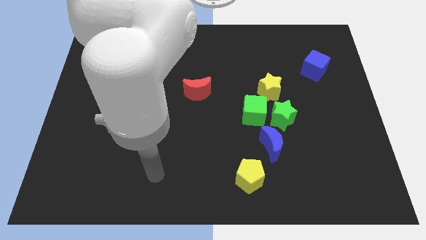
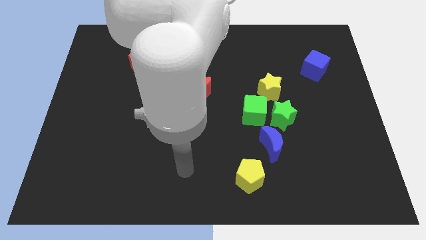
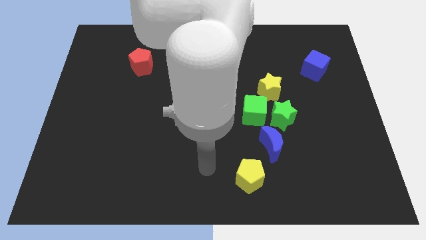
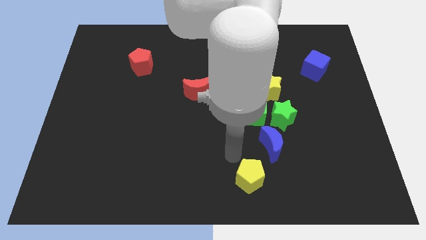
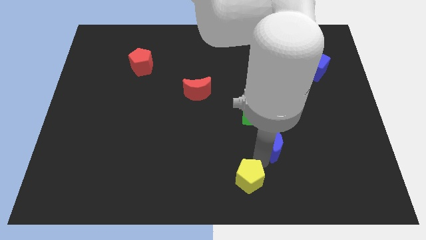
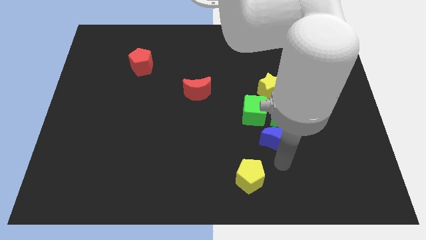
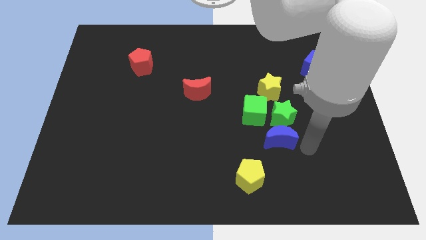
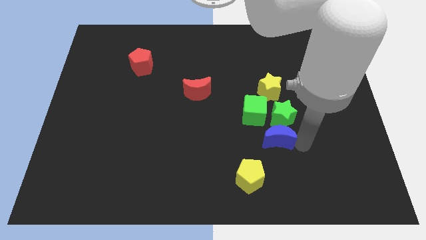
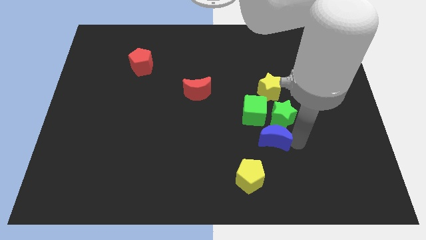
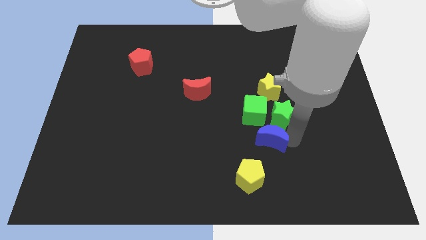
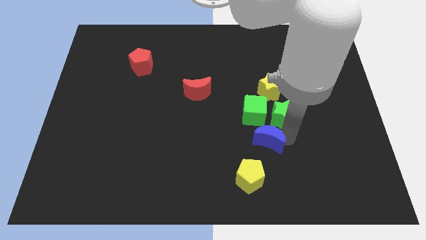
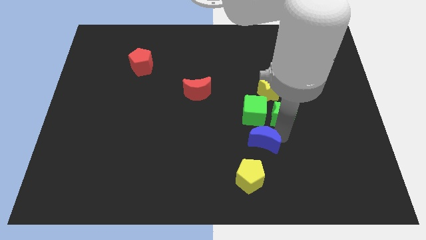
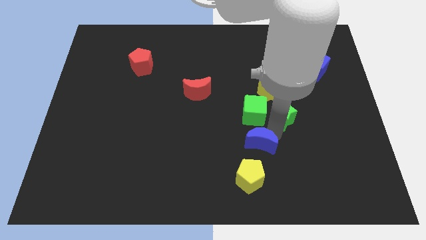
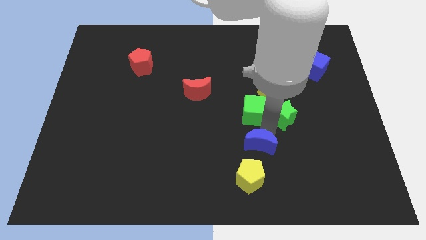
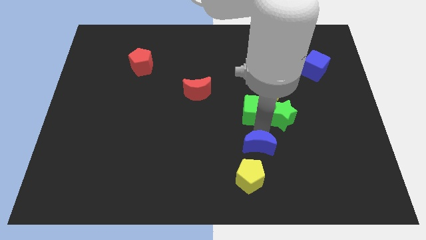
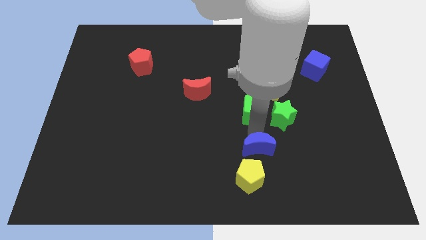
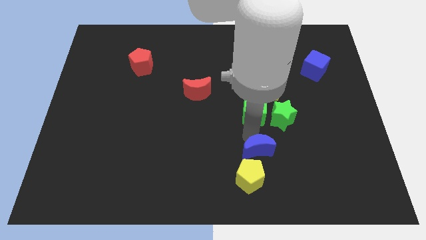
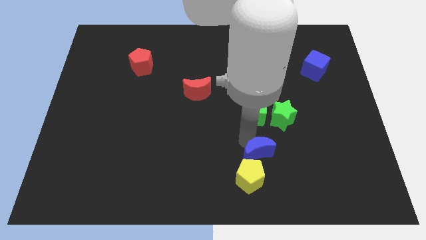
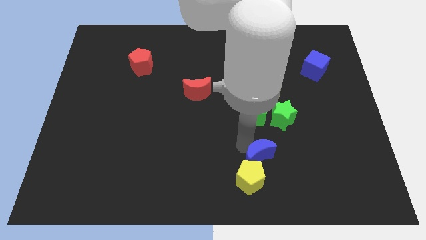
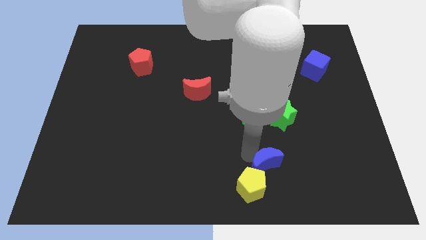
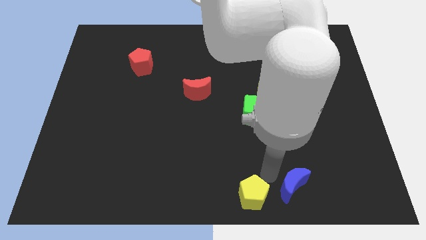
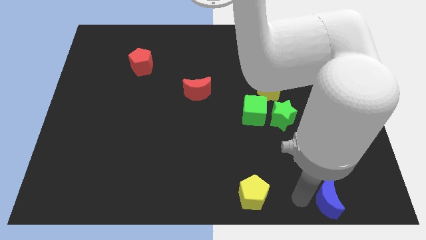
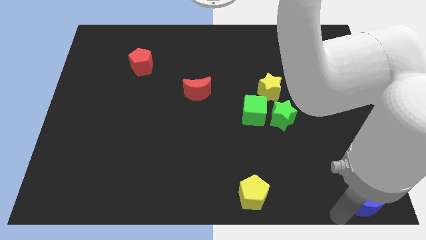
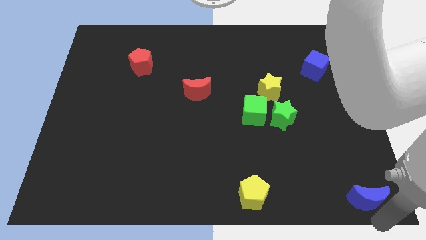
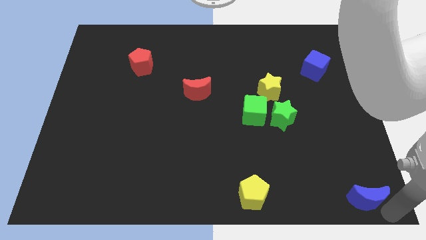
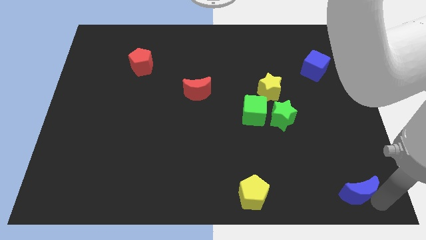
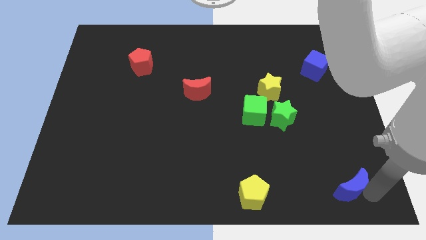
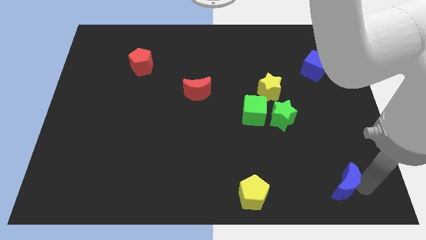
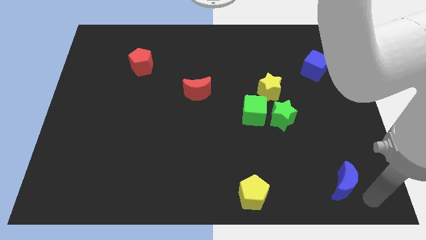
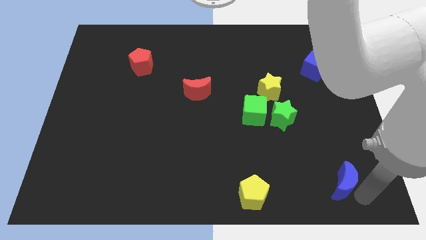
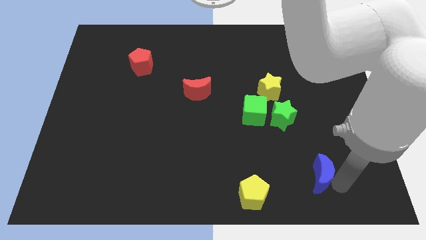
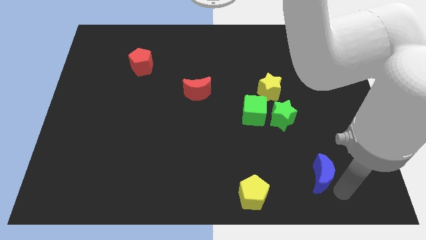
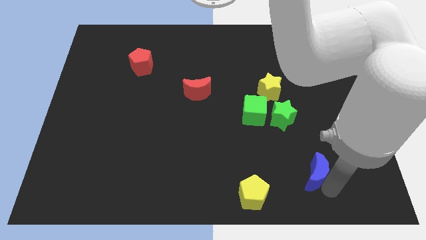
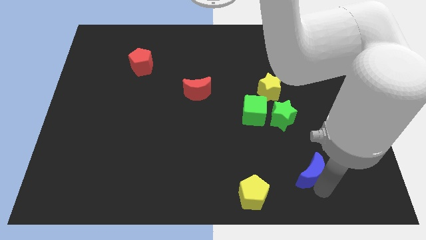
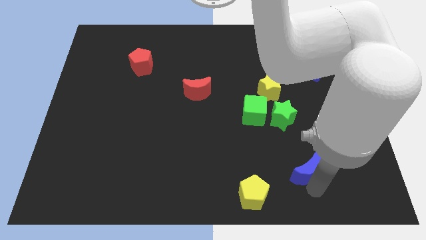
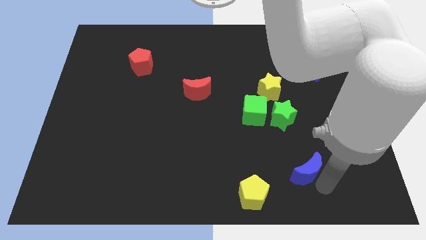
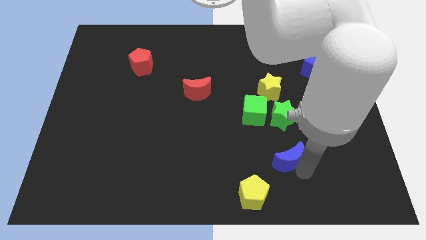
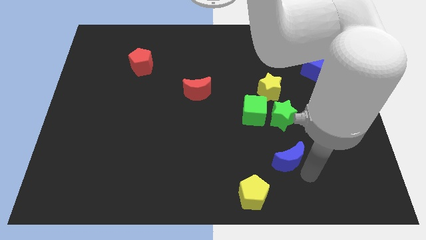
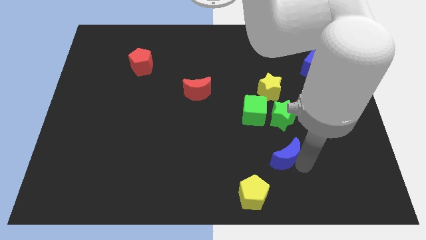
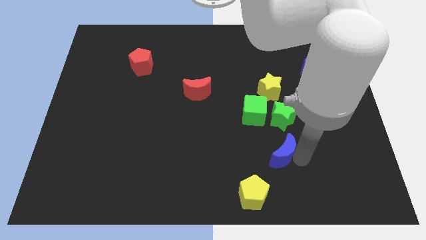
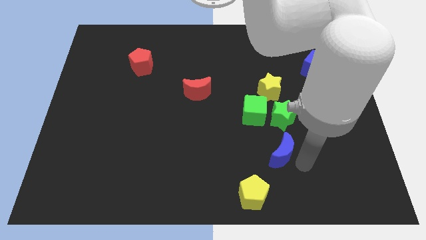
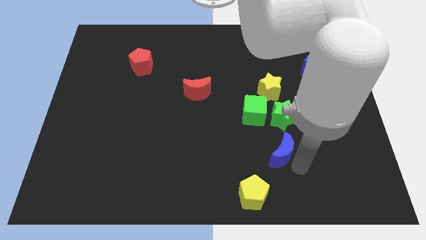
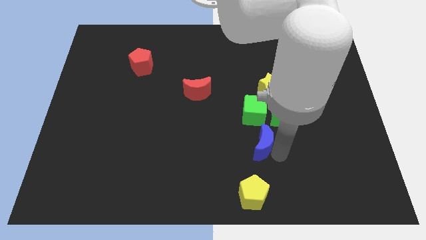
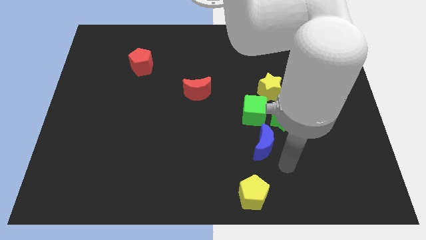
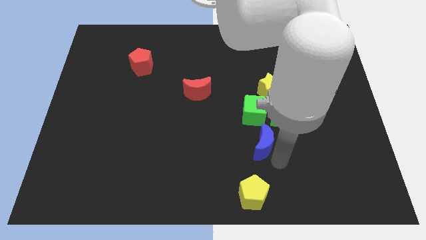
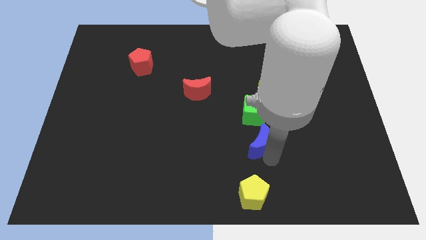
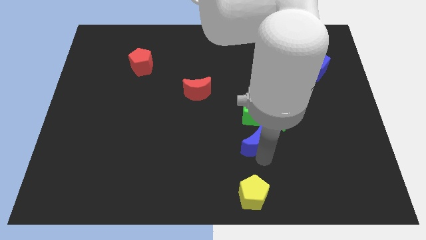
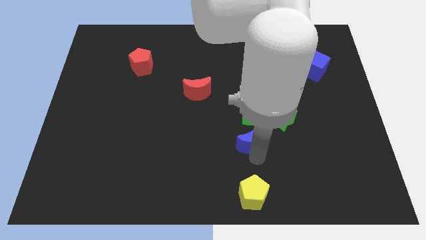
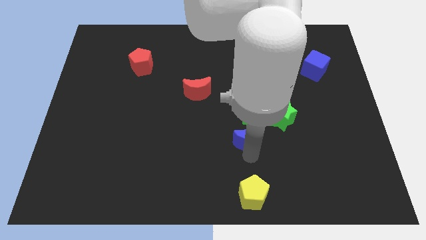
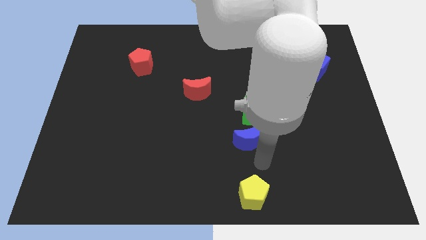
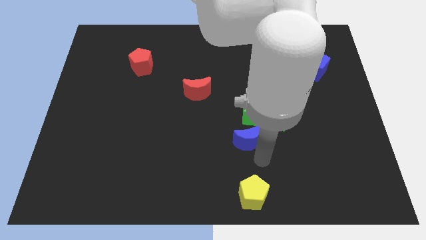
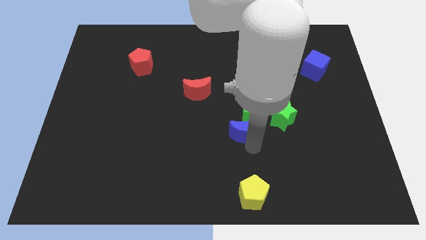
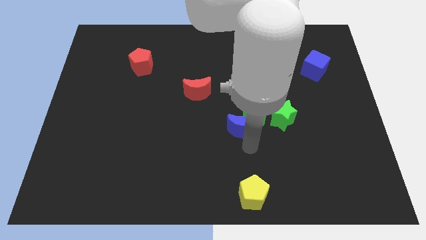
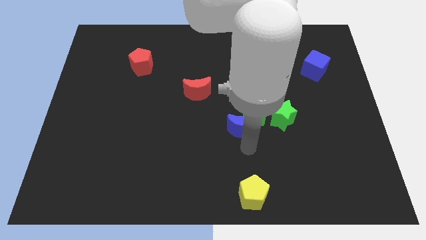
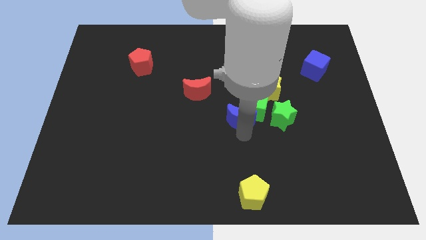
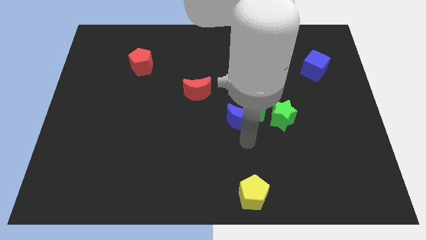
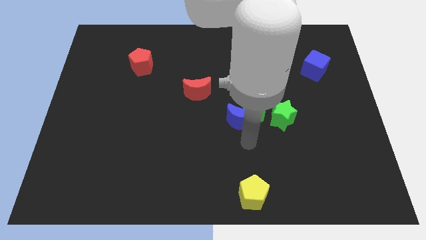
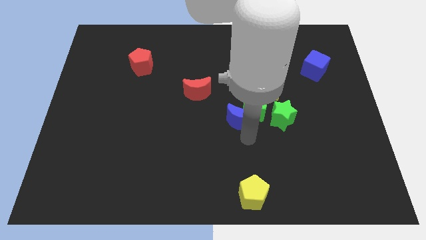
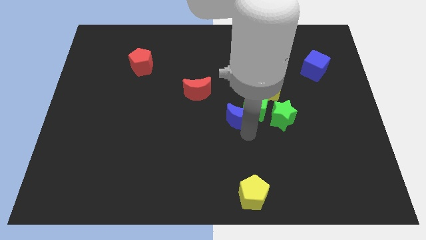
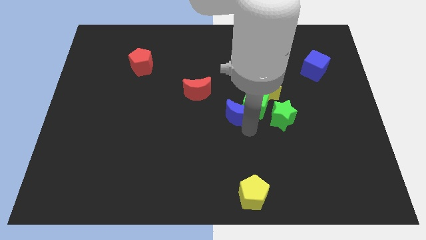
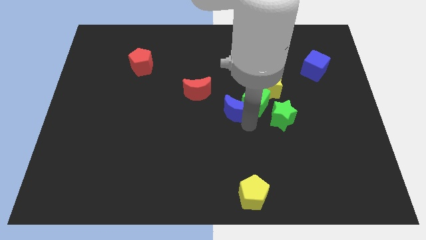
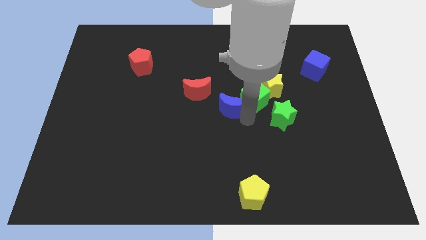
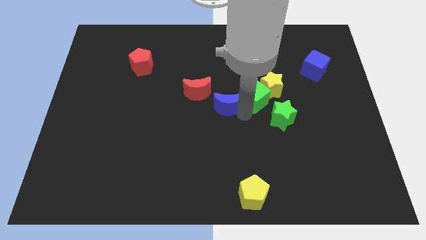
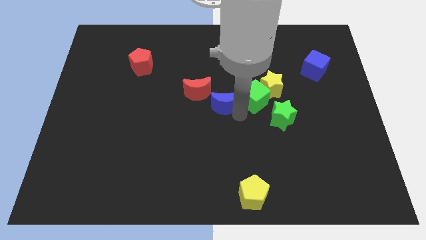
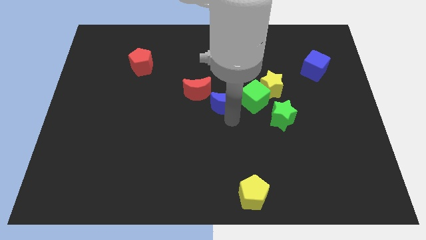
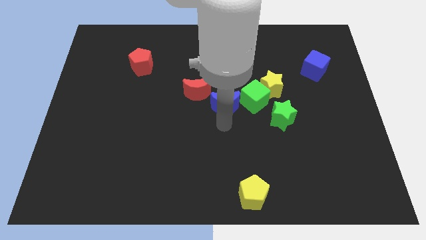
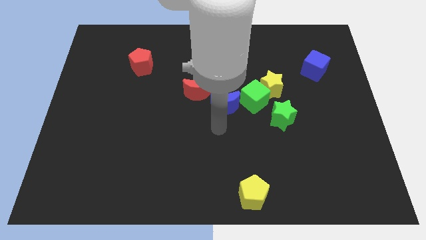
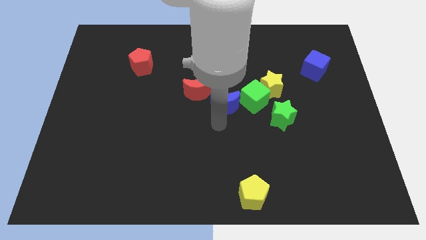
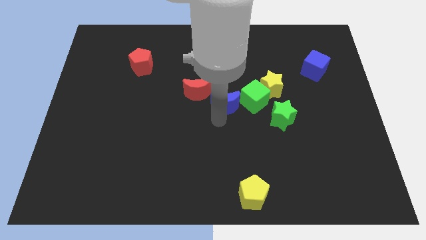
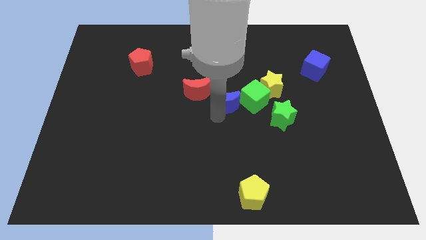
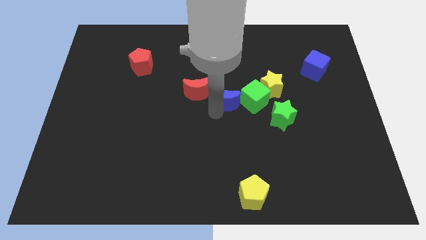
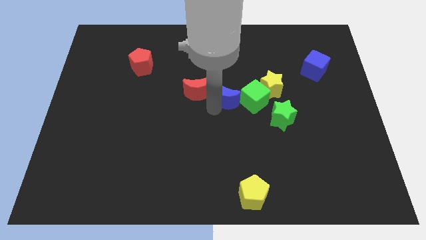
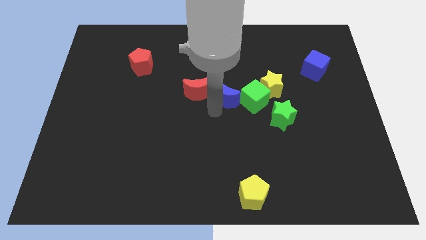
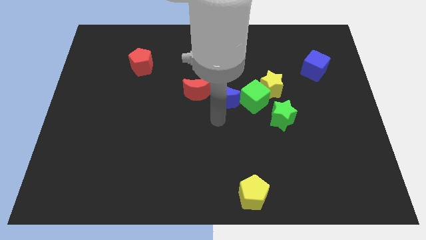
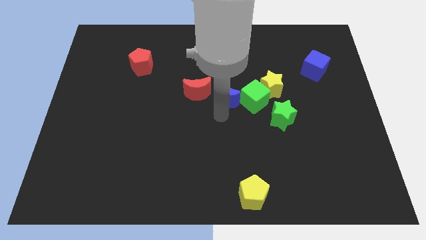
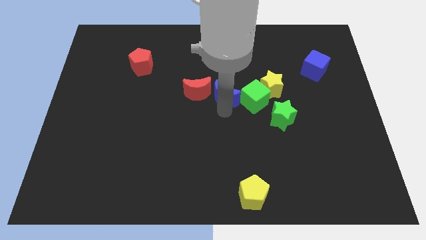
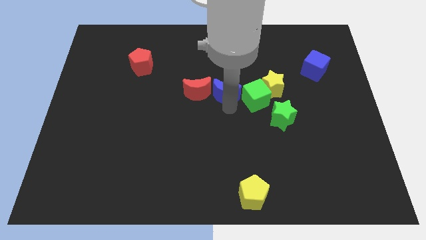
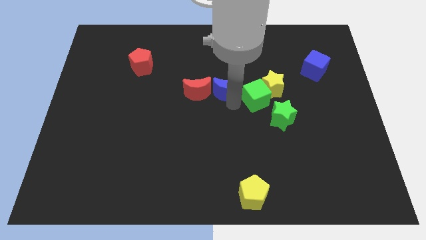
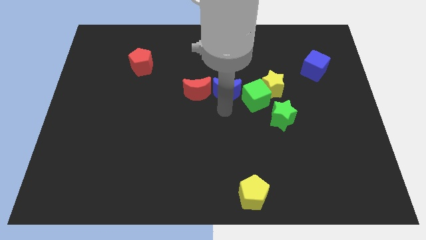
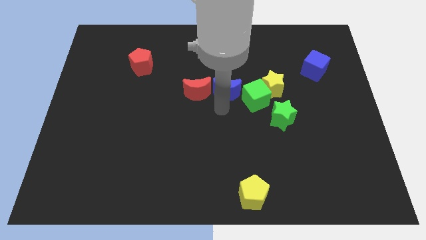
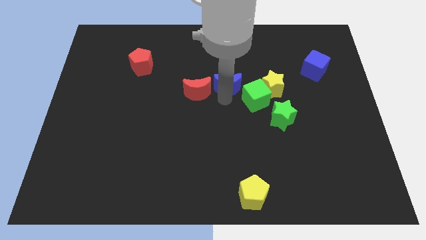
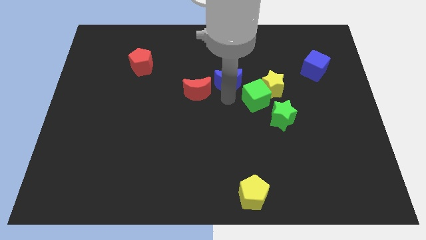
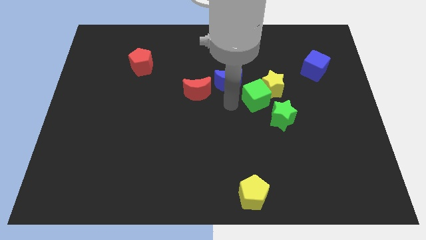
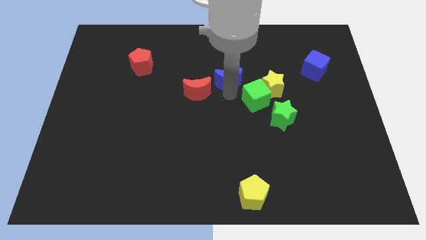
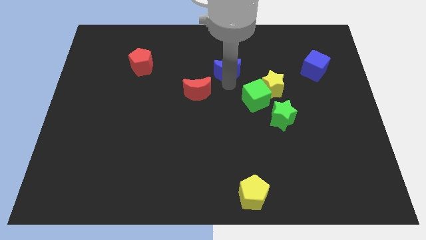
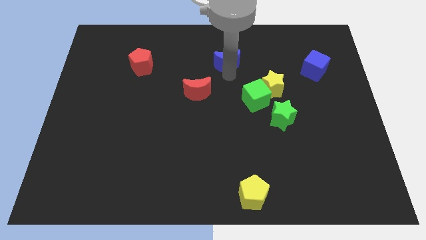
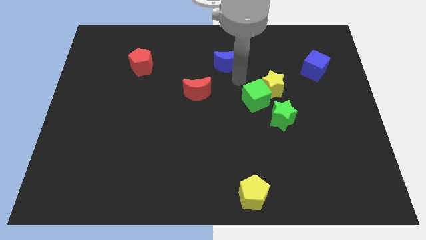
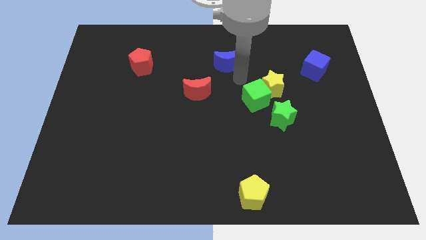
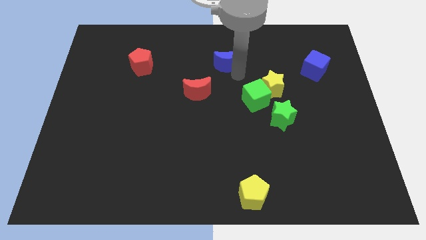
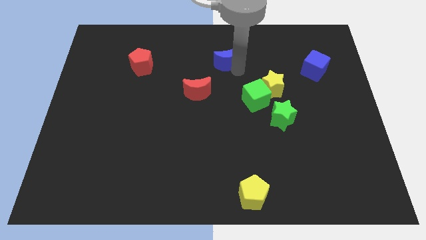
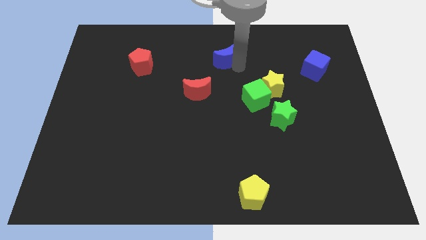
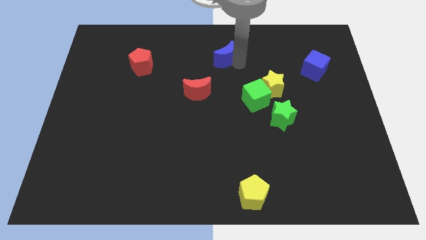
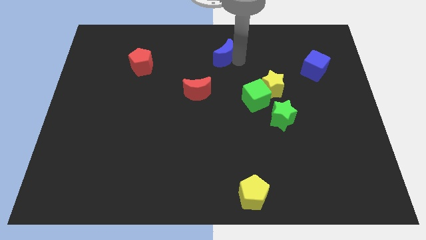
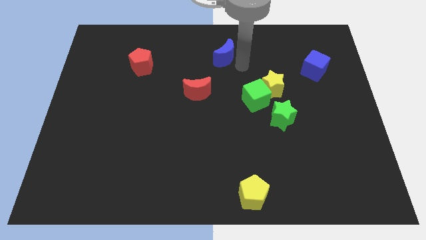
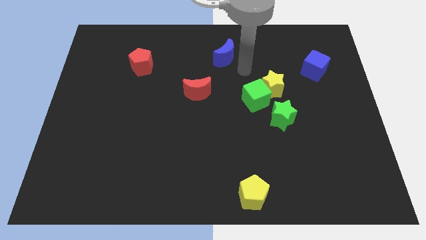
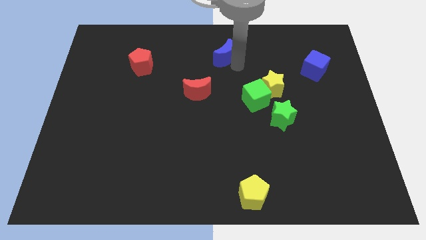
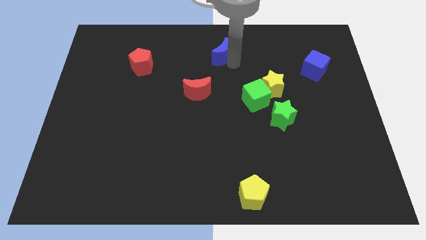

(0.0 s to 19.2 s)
slide the blue moon to the top side
